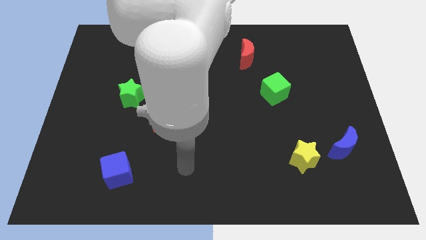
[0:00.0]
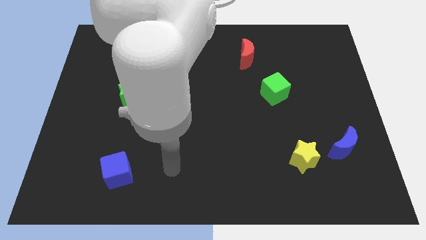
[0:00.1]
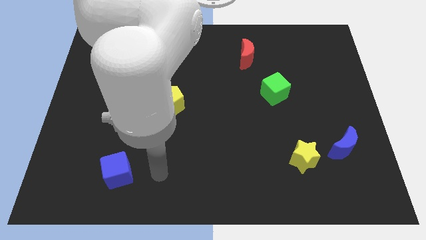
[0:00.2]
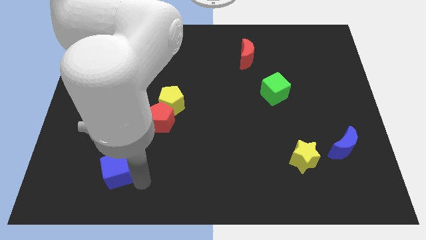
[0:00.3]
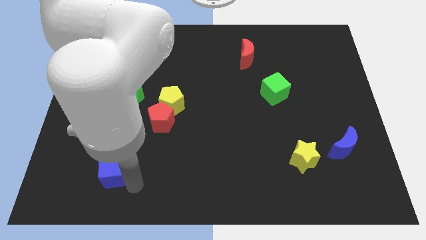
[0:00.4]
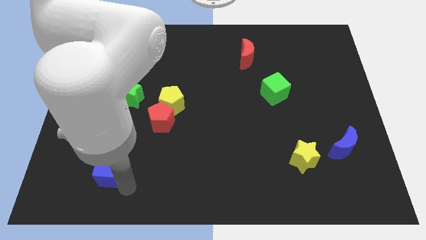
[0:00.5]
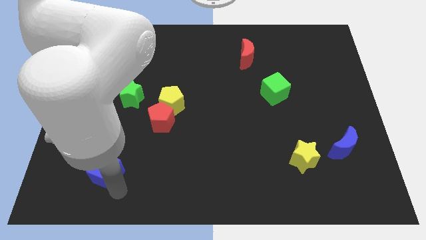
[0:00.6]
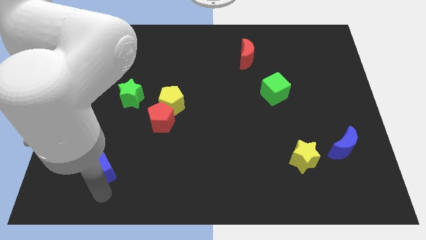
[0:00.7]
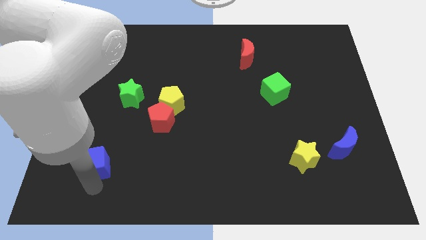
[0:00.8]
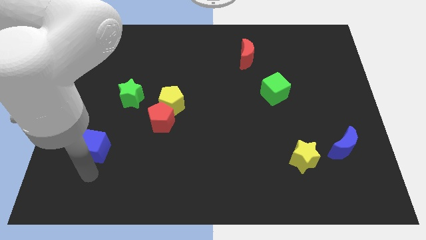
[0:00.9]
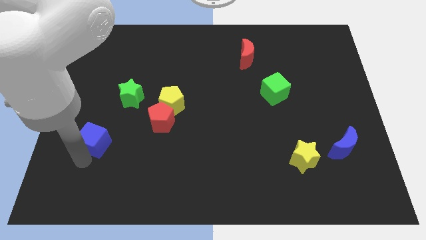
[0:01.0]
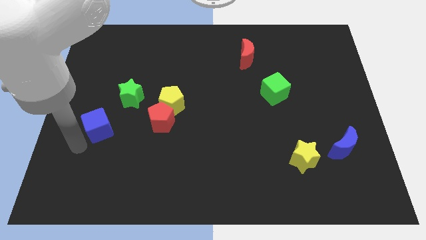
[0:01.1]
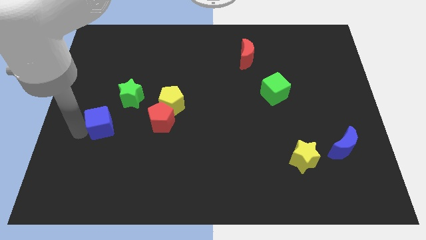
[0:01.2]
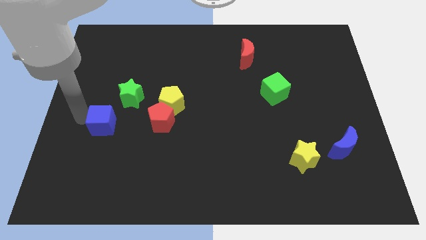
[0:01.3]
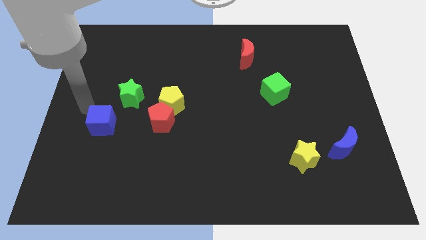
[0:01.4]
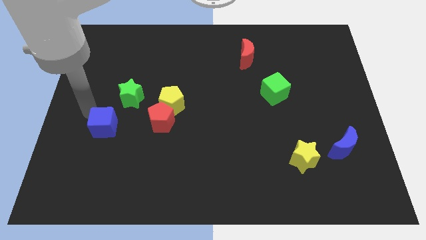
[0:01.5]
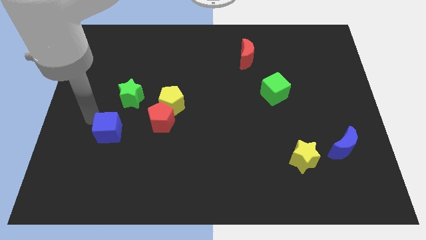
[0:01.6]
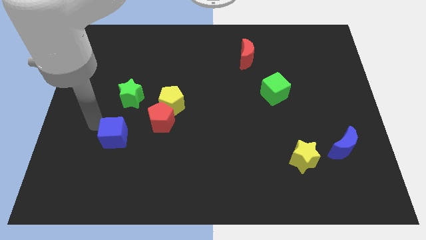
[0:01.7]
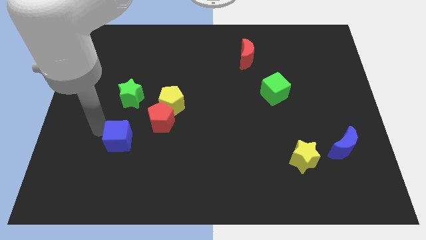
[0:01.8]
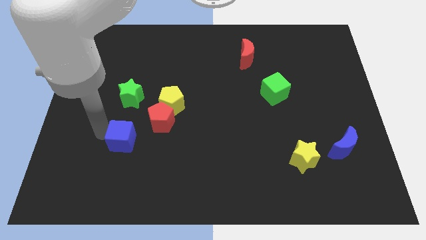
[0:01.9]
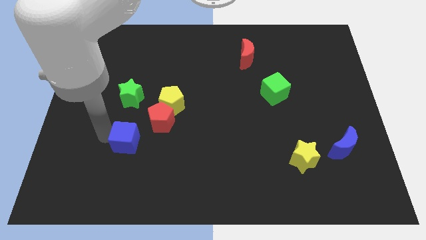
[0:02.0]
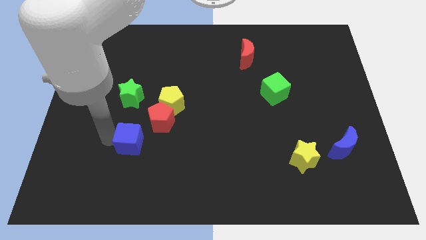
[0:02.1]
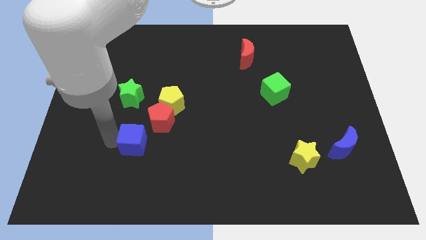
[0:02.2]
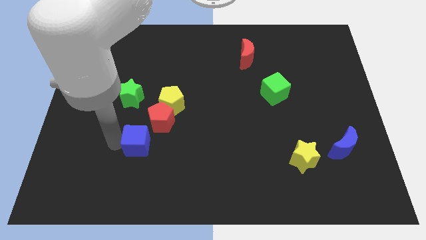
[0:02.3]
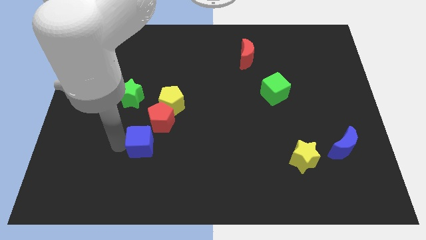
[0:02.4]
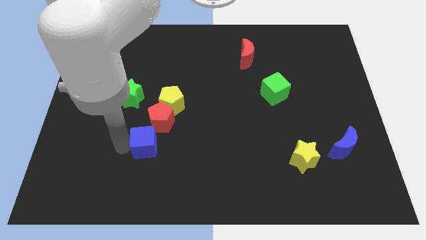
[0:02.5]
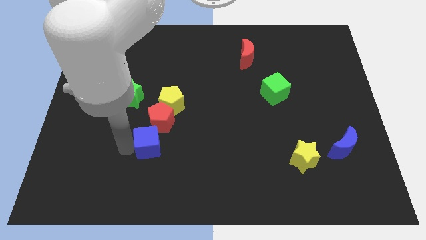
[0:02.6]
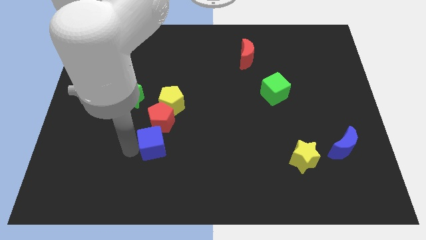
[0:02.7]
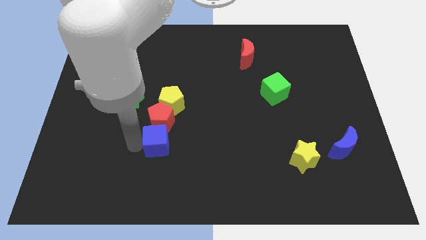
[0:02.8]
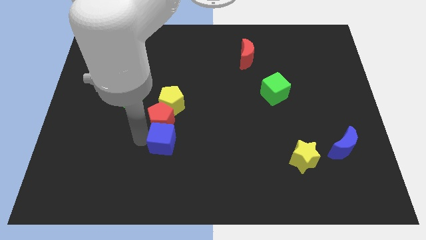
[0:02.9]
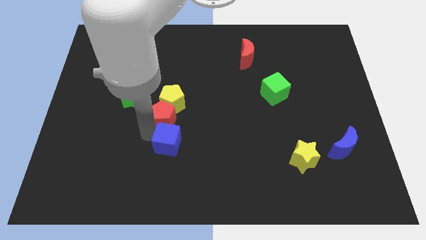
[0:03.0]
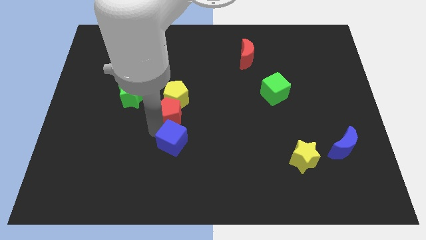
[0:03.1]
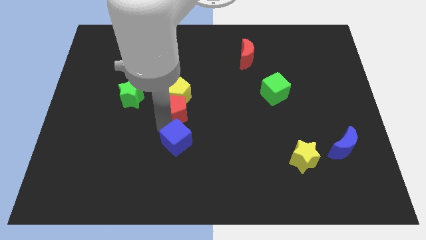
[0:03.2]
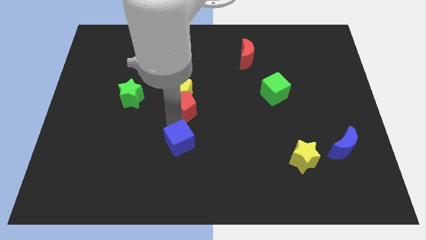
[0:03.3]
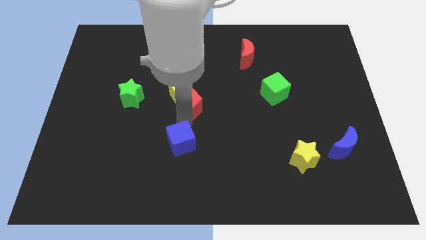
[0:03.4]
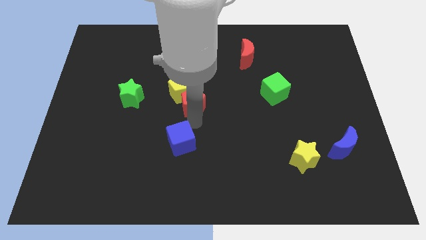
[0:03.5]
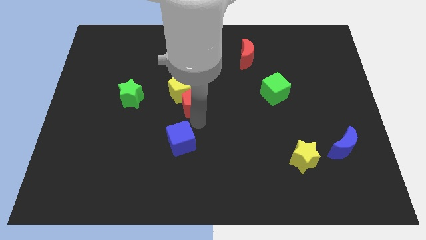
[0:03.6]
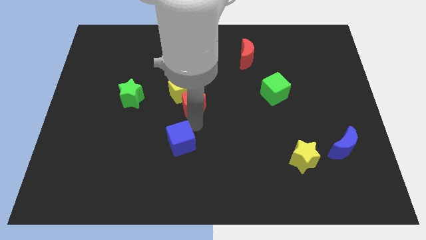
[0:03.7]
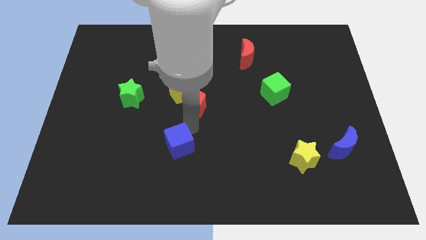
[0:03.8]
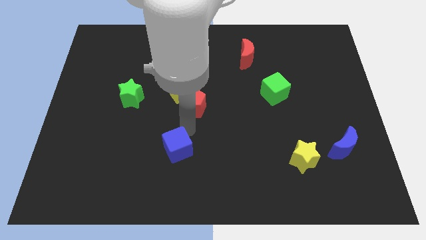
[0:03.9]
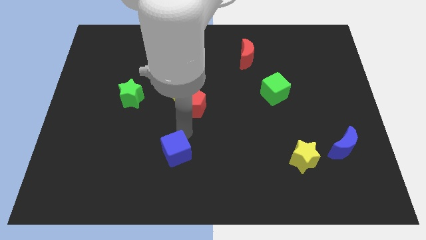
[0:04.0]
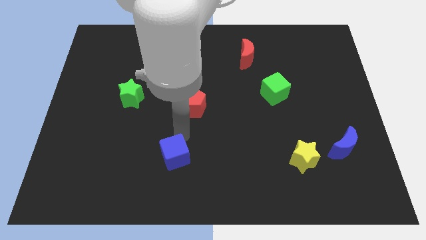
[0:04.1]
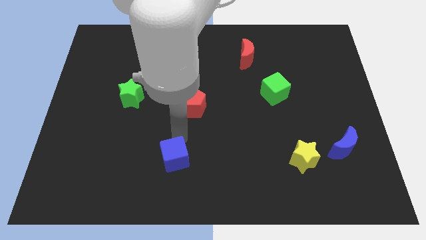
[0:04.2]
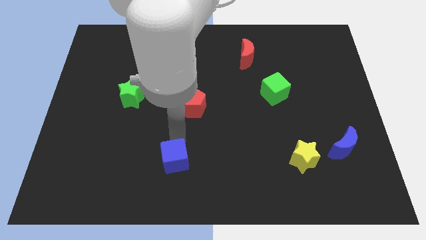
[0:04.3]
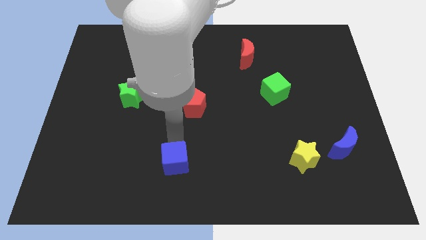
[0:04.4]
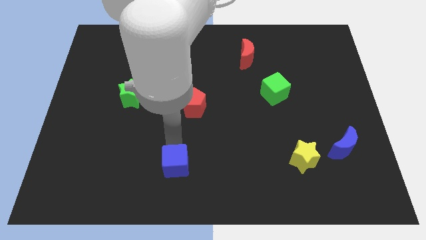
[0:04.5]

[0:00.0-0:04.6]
slide the blue cube to the bottom

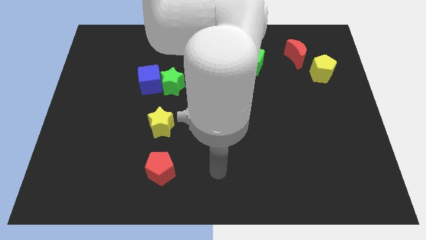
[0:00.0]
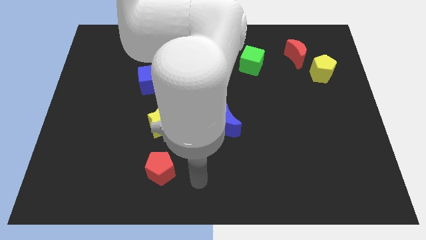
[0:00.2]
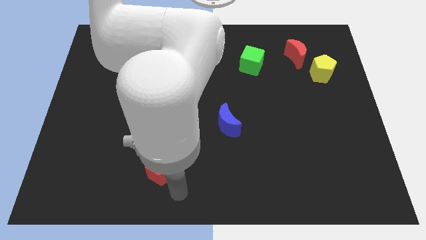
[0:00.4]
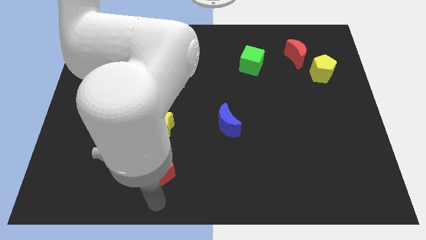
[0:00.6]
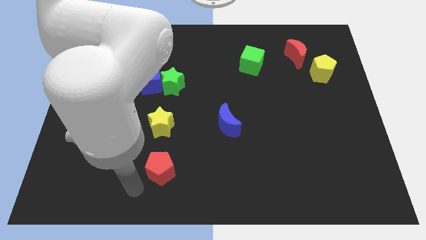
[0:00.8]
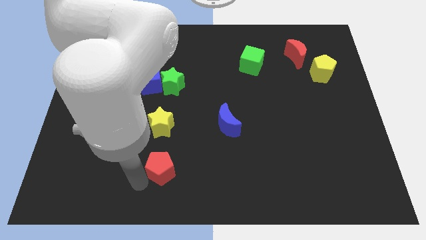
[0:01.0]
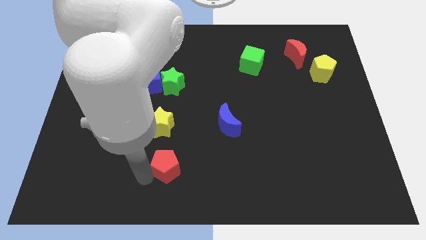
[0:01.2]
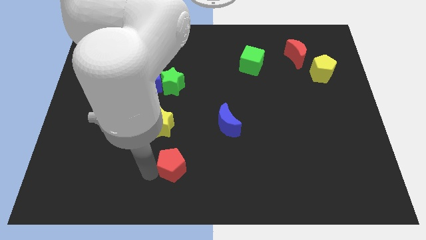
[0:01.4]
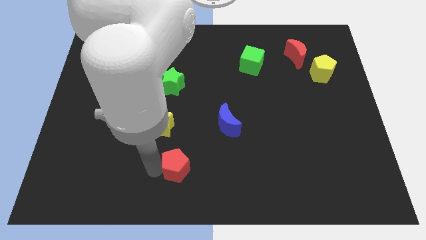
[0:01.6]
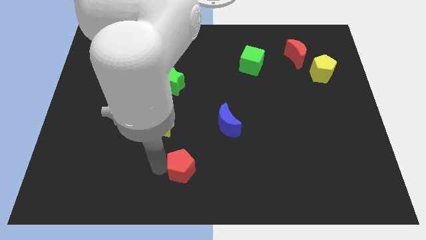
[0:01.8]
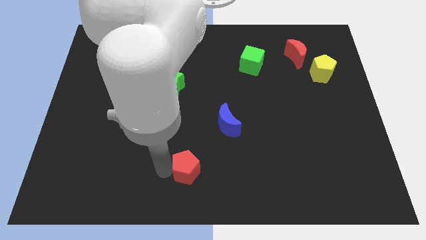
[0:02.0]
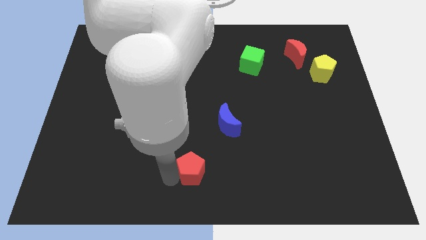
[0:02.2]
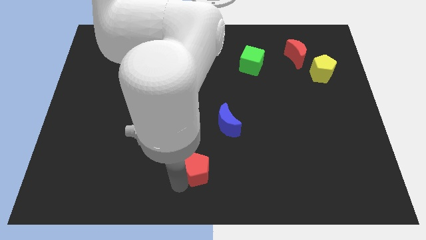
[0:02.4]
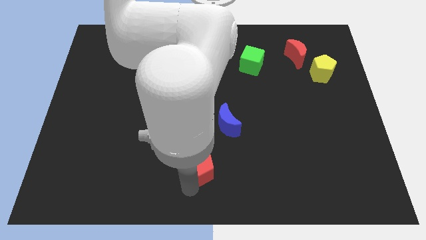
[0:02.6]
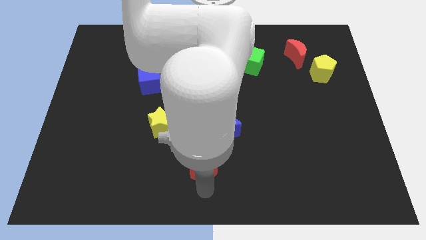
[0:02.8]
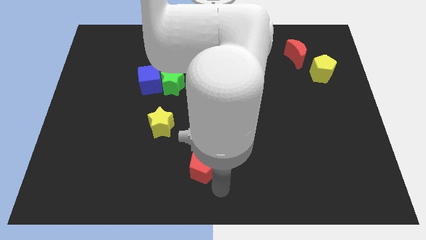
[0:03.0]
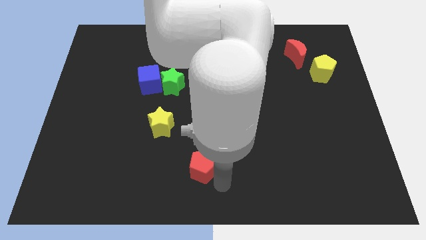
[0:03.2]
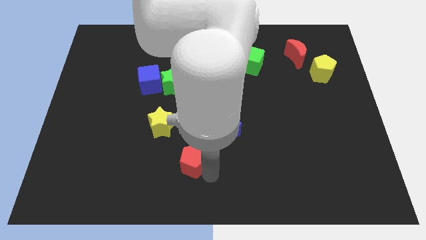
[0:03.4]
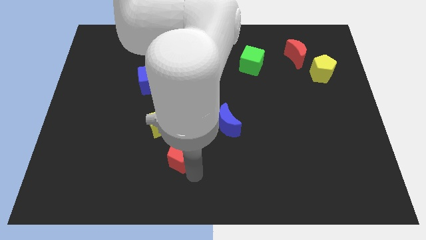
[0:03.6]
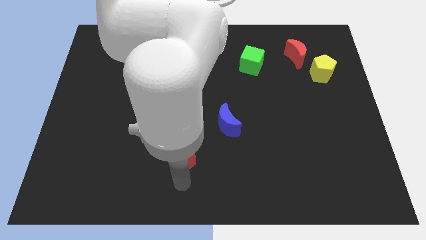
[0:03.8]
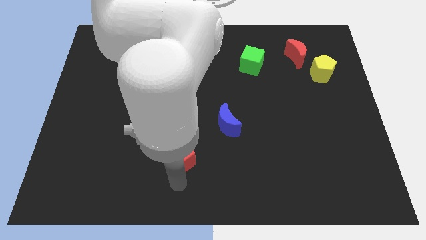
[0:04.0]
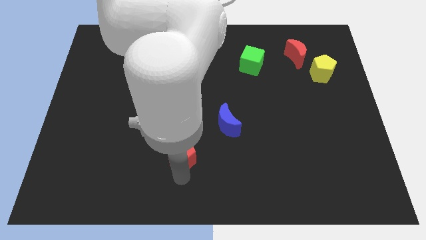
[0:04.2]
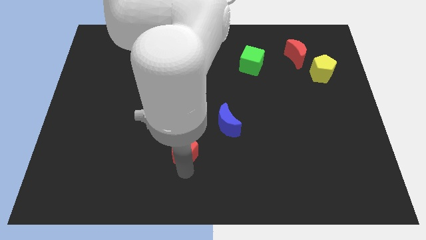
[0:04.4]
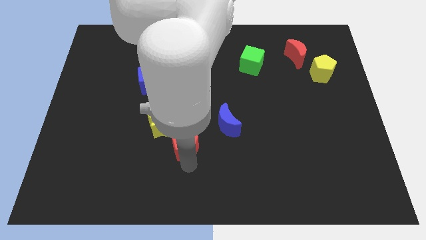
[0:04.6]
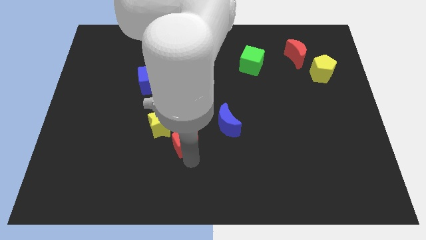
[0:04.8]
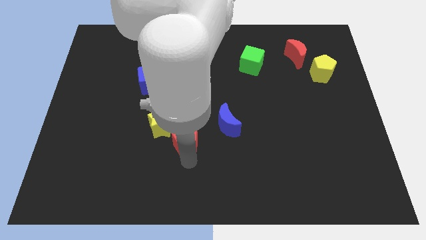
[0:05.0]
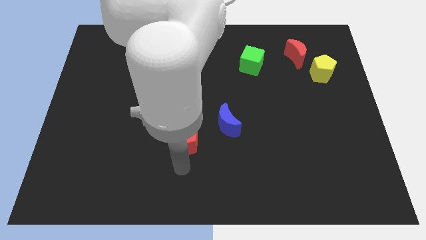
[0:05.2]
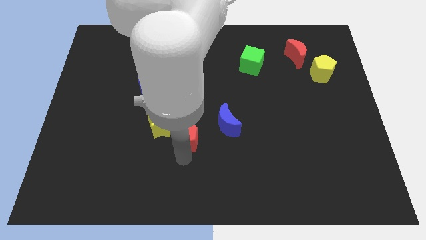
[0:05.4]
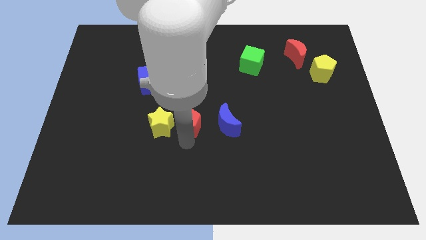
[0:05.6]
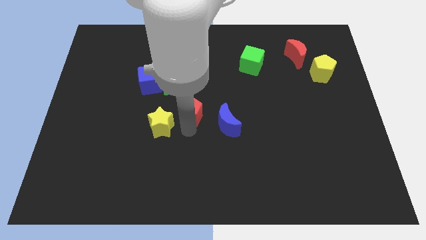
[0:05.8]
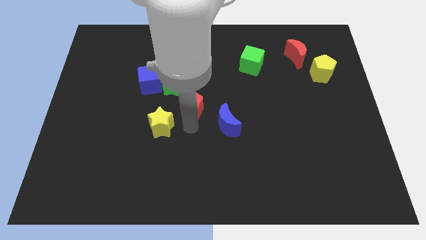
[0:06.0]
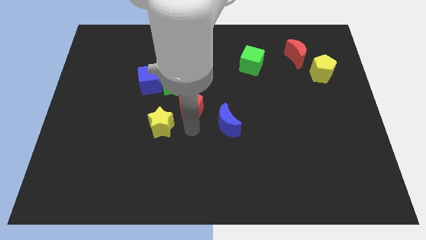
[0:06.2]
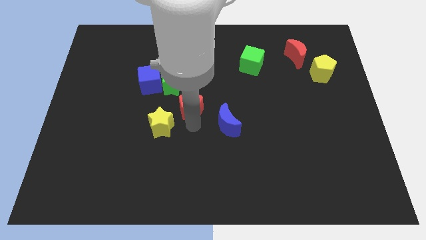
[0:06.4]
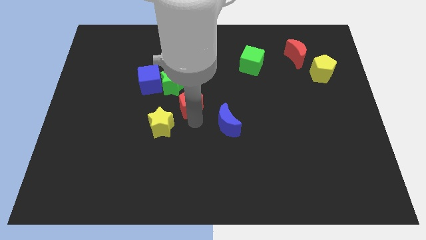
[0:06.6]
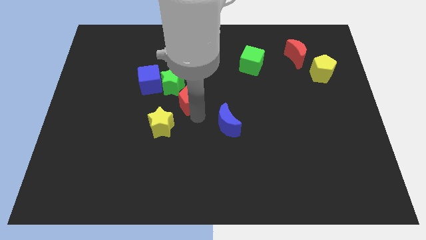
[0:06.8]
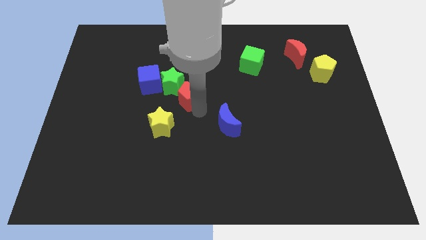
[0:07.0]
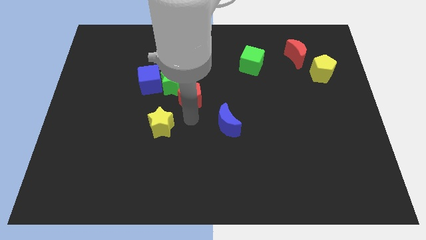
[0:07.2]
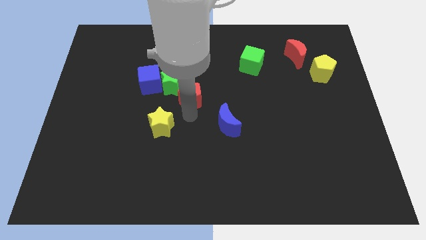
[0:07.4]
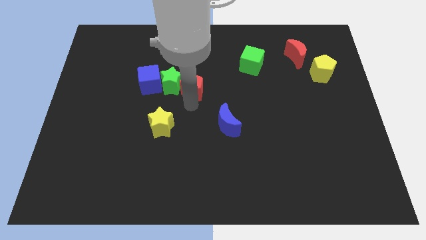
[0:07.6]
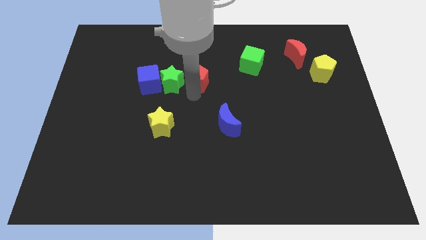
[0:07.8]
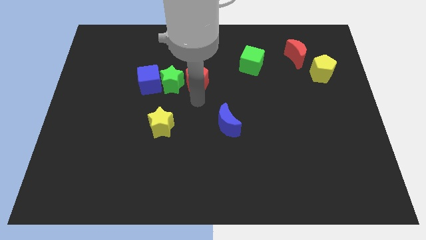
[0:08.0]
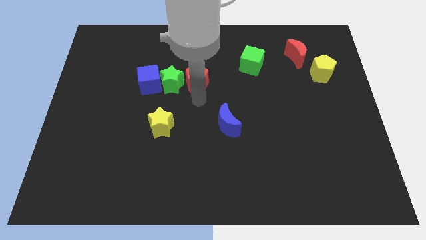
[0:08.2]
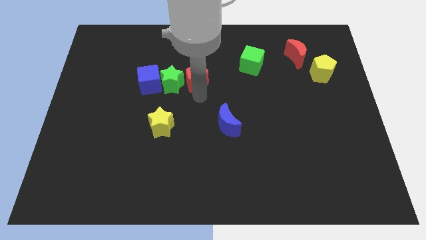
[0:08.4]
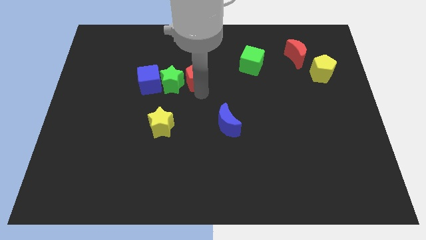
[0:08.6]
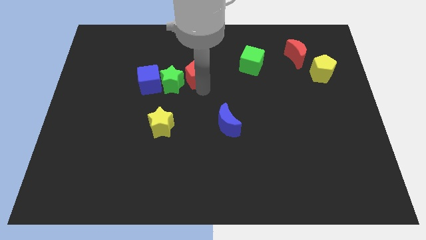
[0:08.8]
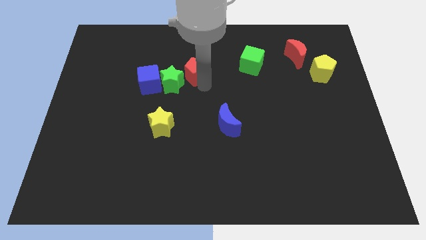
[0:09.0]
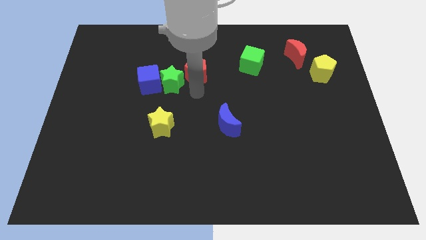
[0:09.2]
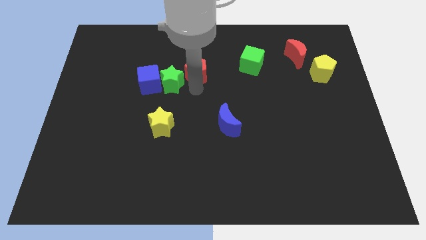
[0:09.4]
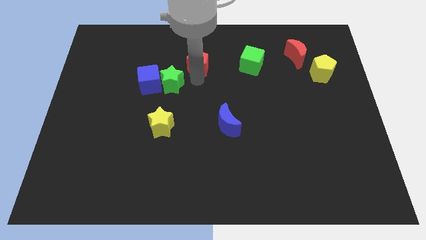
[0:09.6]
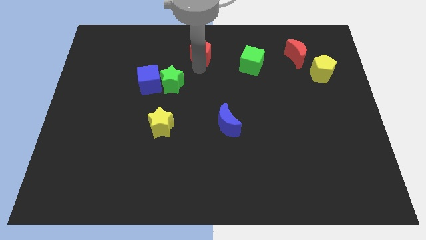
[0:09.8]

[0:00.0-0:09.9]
push the red pentagon to the top side
